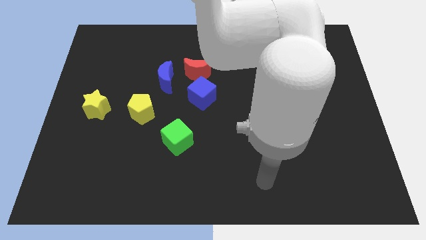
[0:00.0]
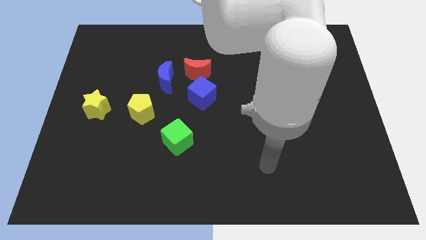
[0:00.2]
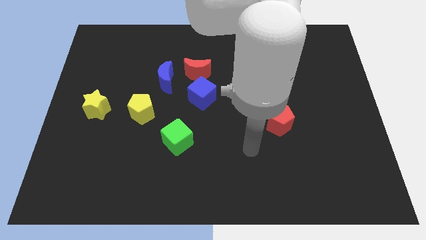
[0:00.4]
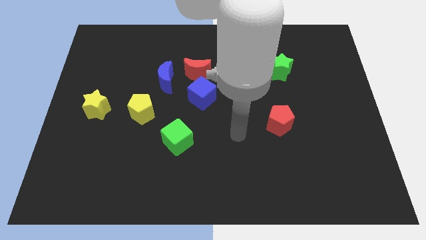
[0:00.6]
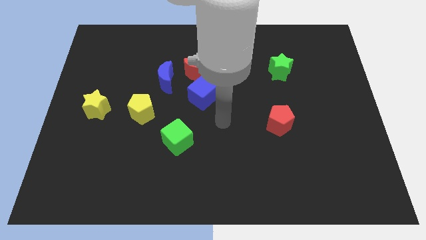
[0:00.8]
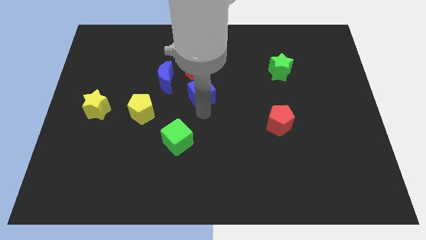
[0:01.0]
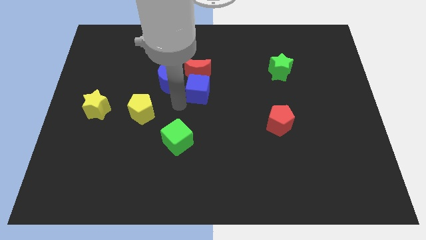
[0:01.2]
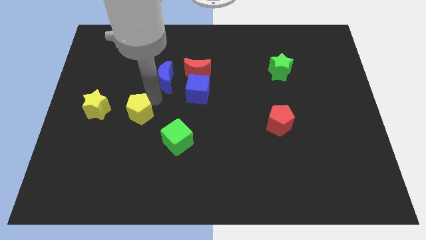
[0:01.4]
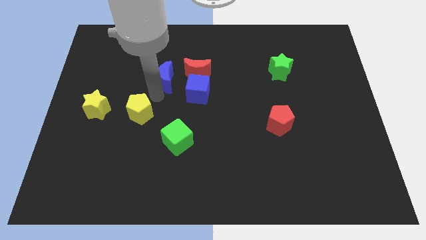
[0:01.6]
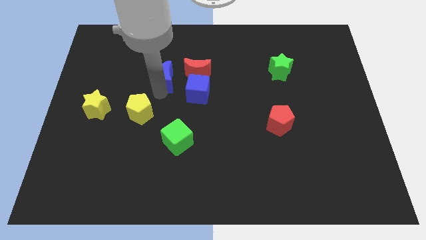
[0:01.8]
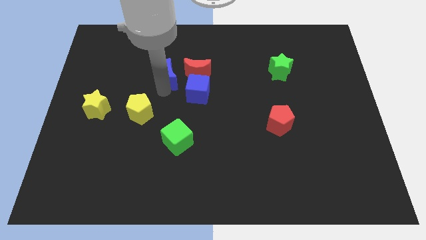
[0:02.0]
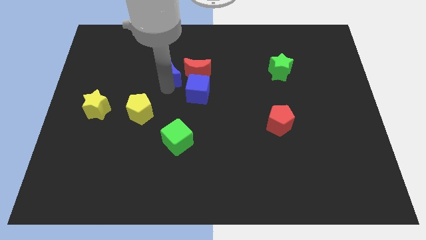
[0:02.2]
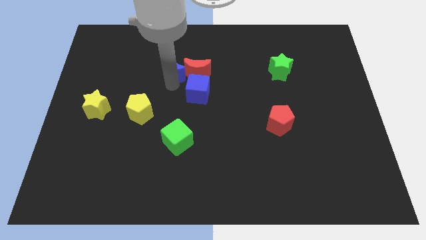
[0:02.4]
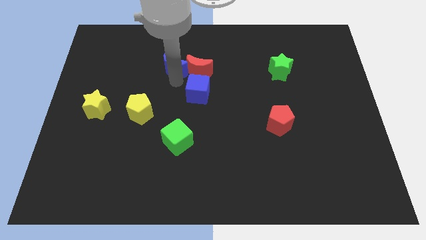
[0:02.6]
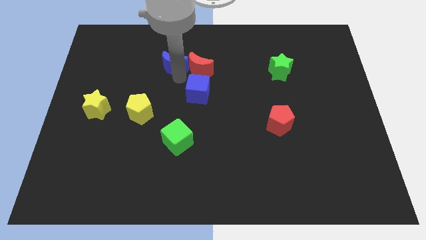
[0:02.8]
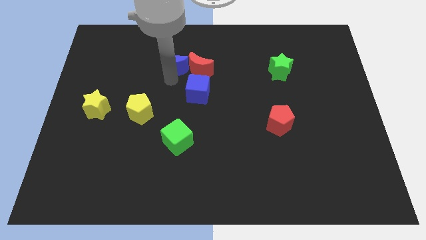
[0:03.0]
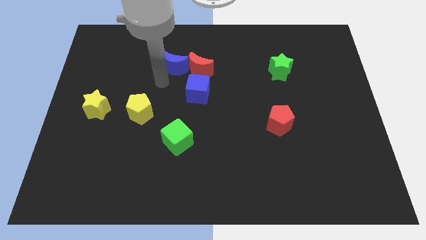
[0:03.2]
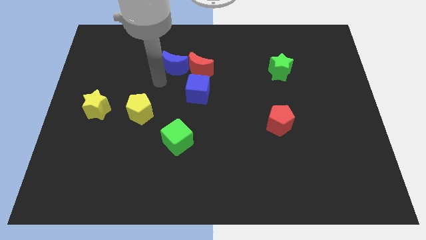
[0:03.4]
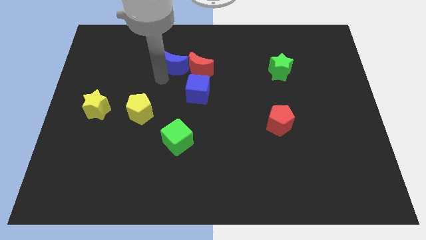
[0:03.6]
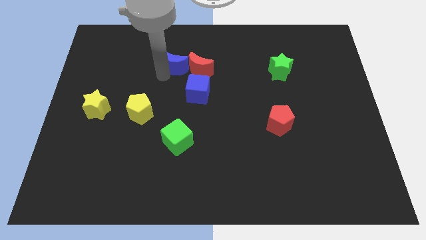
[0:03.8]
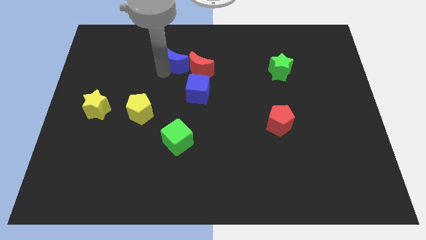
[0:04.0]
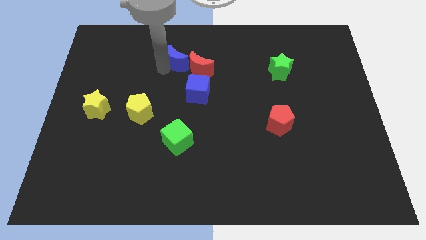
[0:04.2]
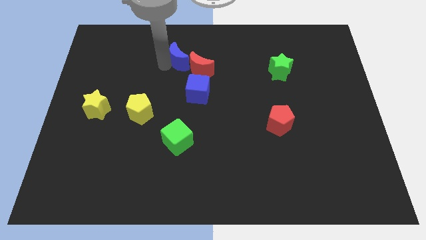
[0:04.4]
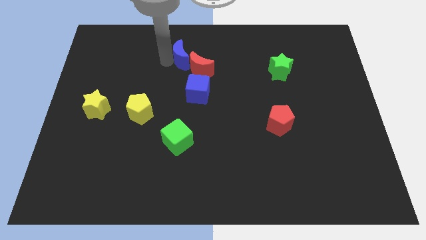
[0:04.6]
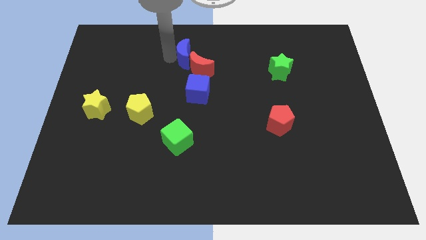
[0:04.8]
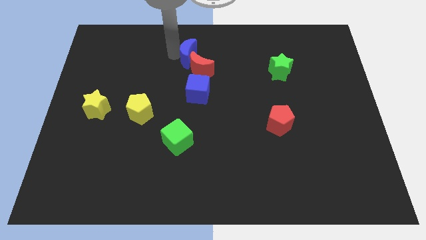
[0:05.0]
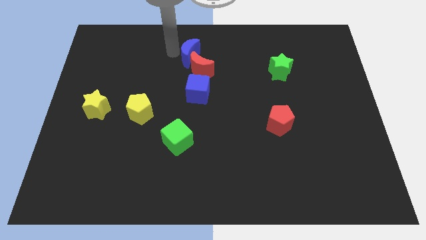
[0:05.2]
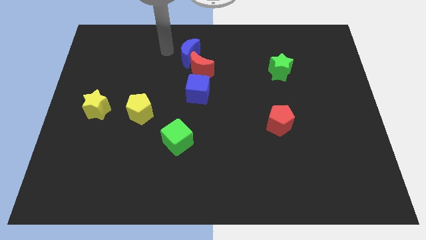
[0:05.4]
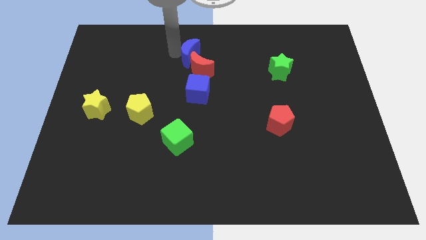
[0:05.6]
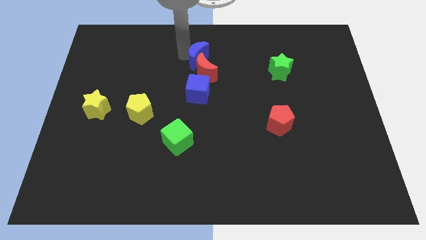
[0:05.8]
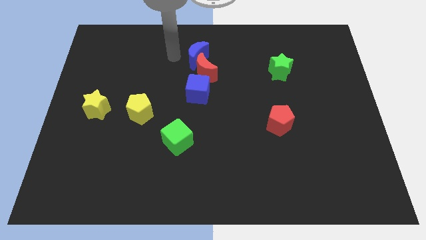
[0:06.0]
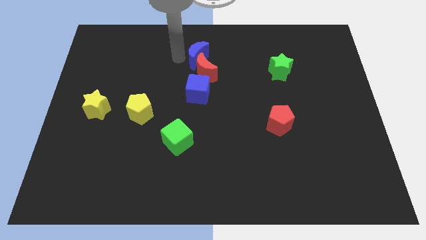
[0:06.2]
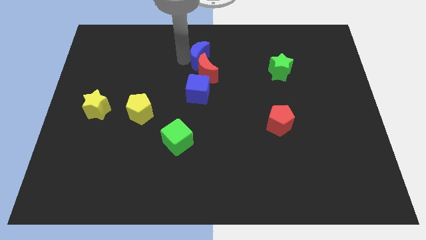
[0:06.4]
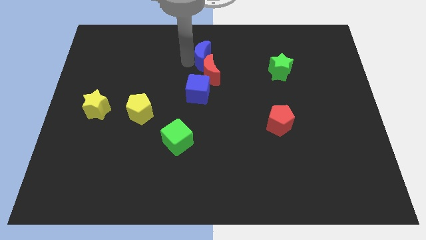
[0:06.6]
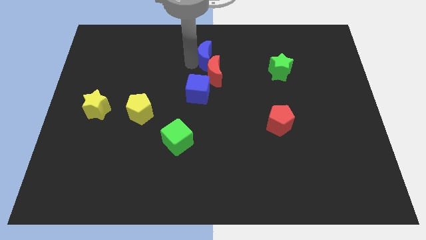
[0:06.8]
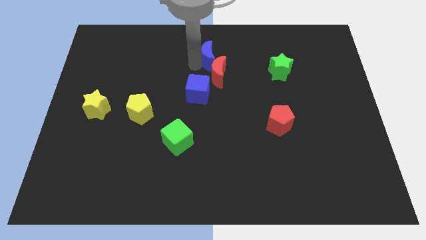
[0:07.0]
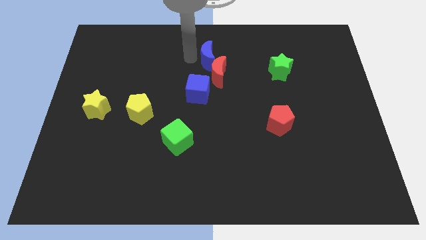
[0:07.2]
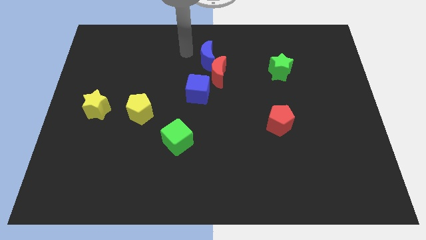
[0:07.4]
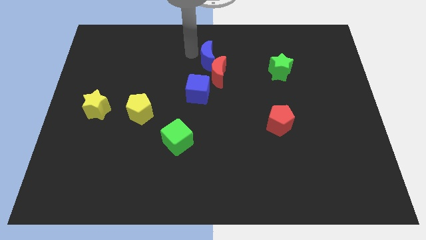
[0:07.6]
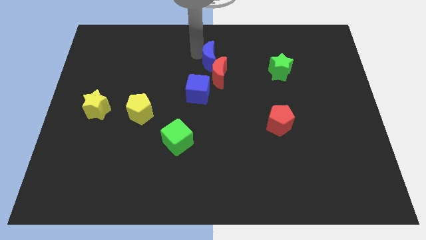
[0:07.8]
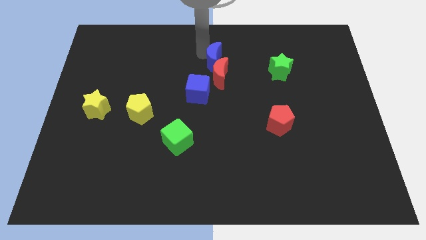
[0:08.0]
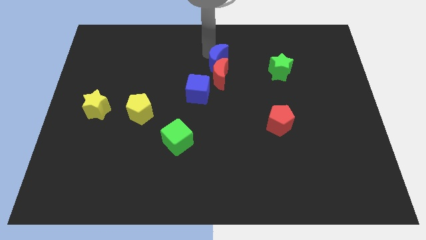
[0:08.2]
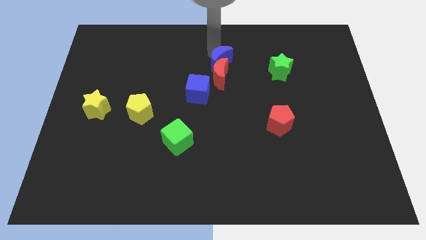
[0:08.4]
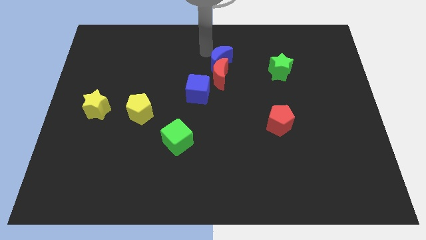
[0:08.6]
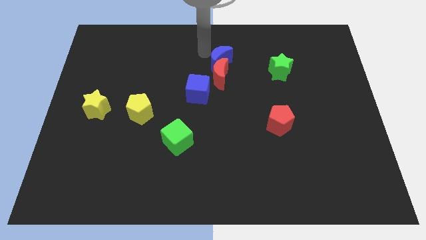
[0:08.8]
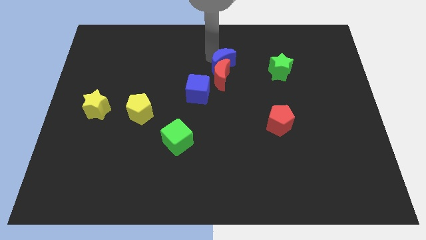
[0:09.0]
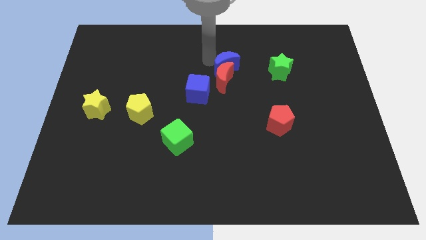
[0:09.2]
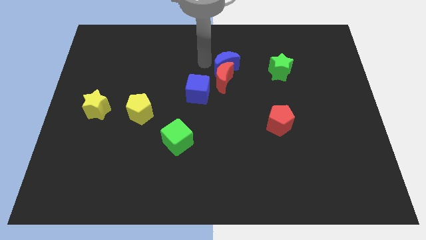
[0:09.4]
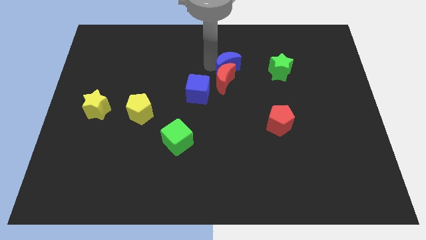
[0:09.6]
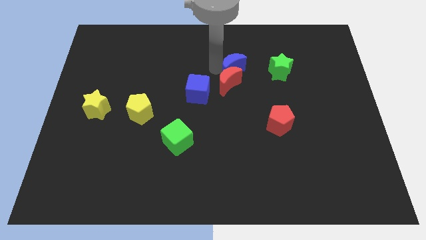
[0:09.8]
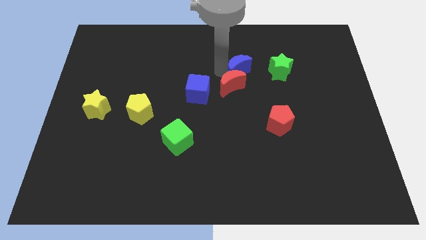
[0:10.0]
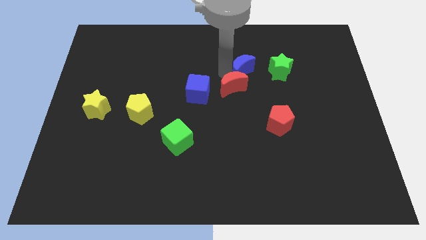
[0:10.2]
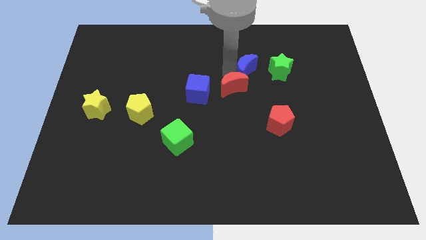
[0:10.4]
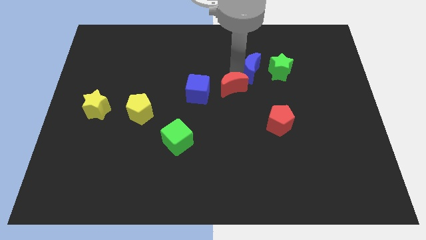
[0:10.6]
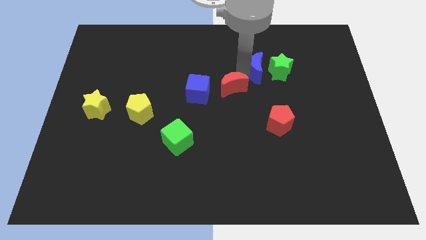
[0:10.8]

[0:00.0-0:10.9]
slide the blue moon to the green star

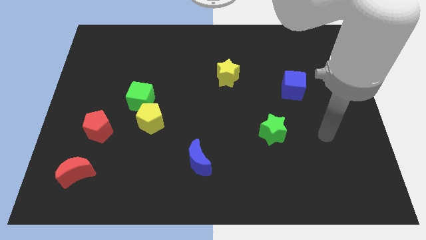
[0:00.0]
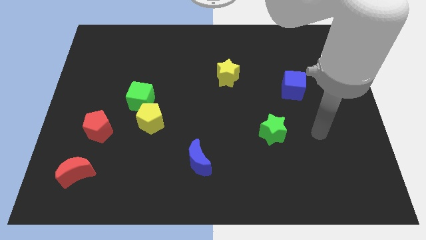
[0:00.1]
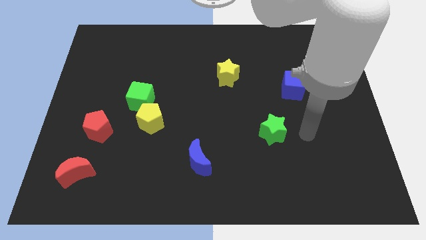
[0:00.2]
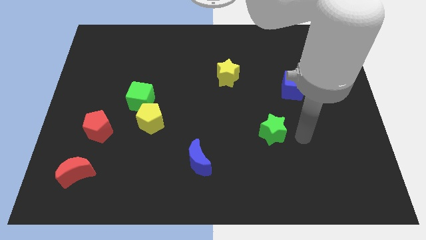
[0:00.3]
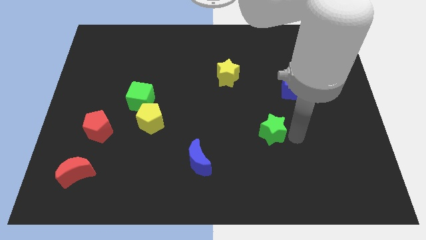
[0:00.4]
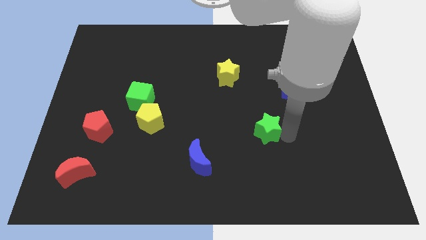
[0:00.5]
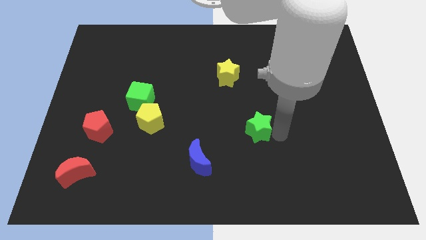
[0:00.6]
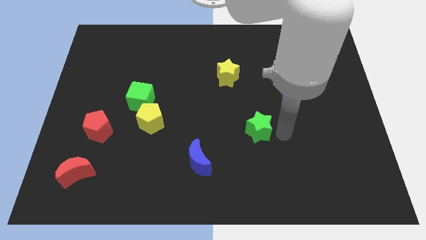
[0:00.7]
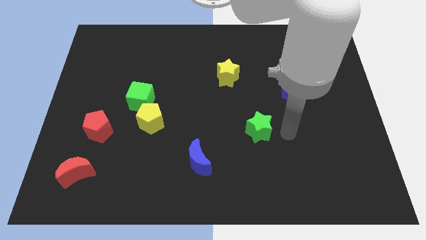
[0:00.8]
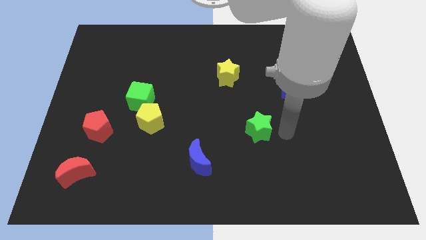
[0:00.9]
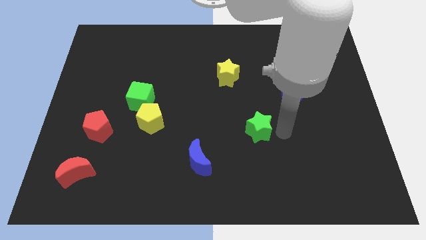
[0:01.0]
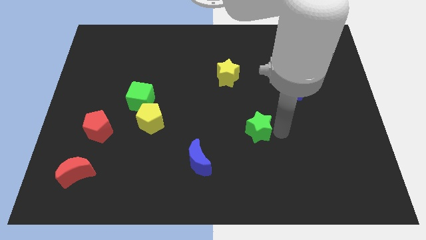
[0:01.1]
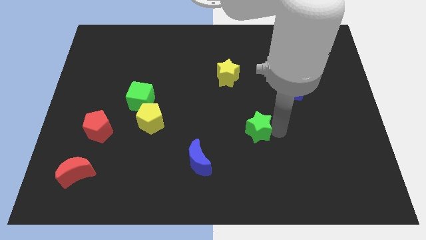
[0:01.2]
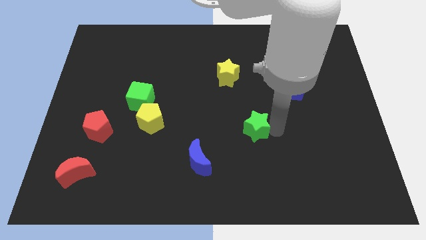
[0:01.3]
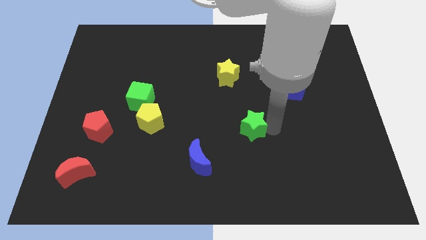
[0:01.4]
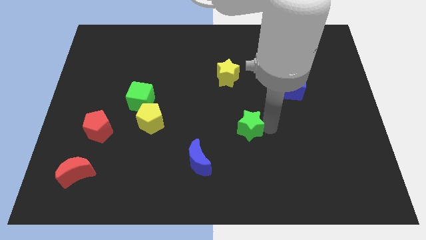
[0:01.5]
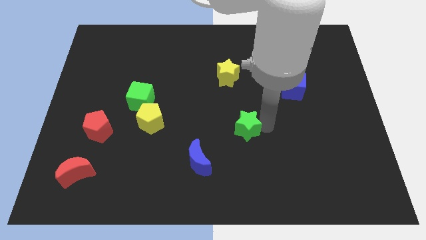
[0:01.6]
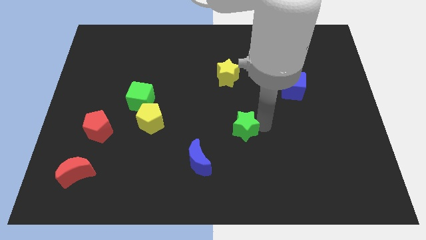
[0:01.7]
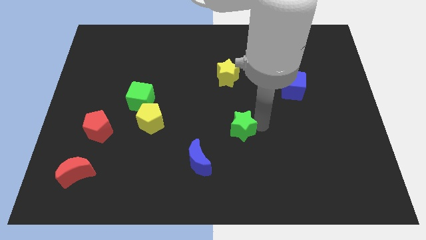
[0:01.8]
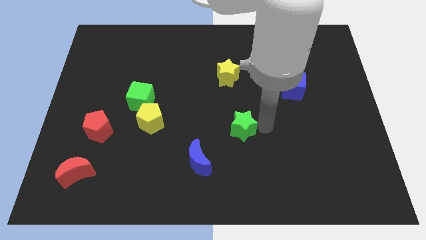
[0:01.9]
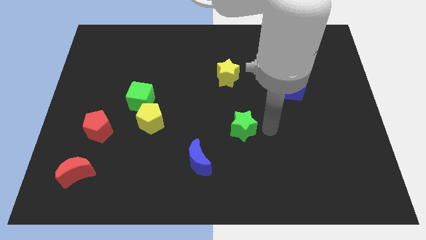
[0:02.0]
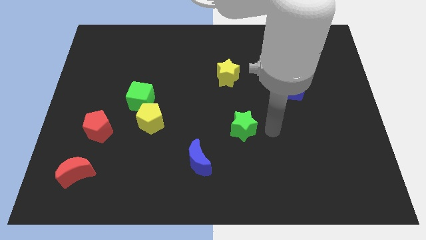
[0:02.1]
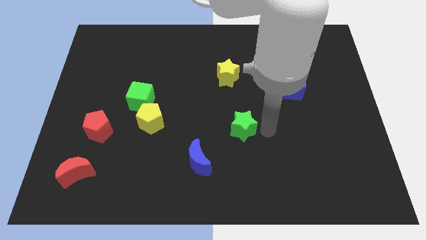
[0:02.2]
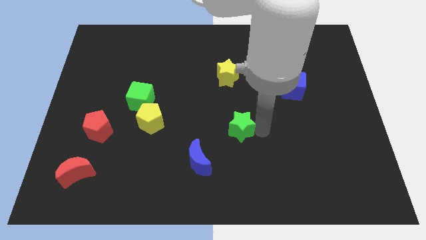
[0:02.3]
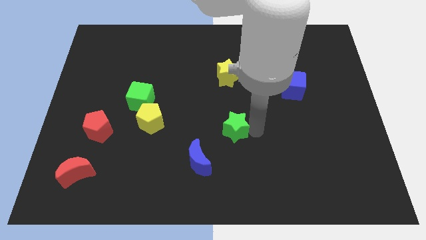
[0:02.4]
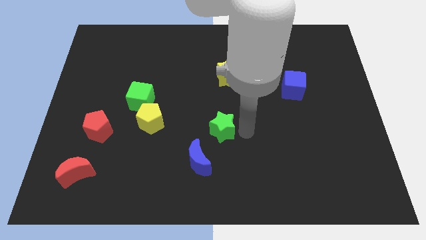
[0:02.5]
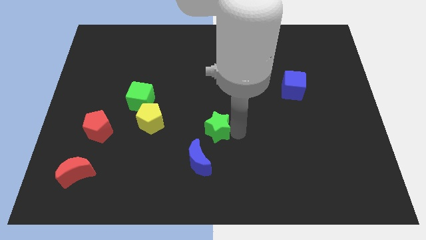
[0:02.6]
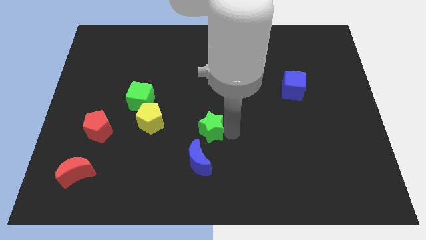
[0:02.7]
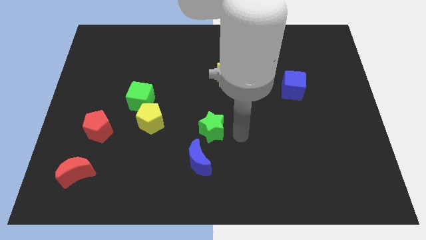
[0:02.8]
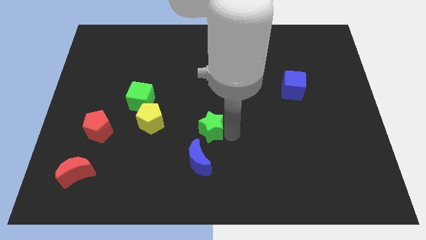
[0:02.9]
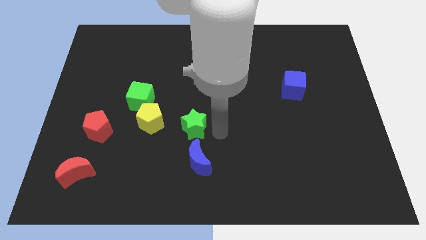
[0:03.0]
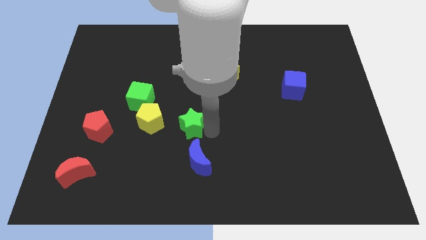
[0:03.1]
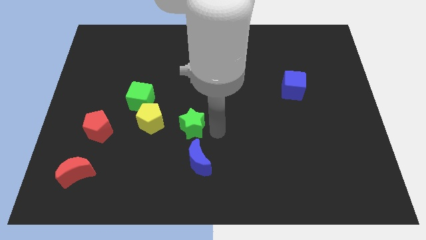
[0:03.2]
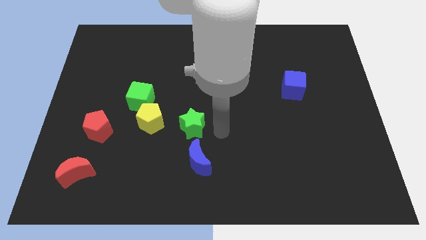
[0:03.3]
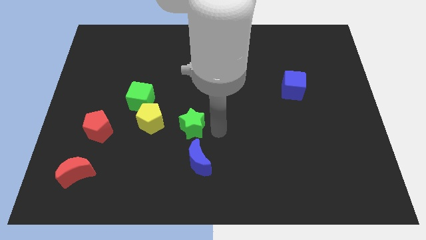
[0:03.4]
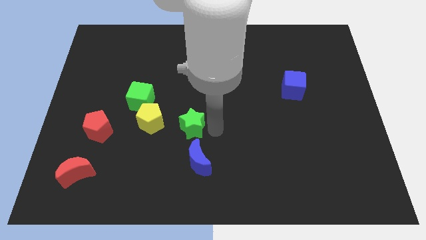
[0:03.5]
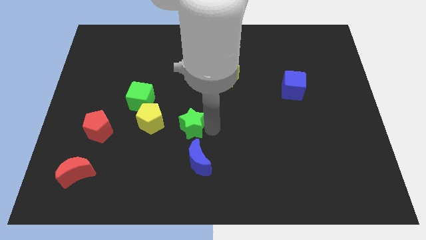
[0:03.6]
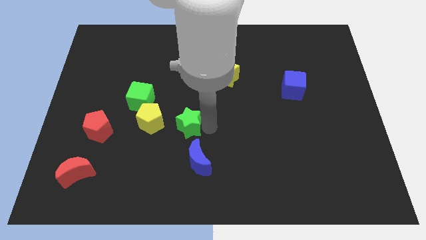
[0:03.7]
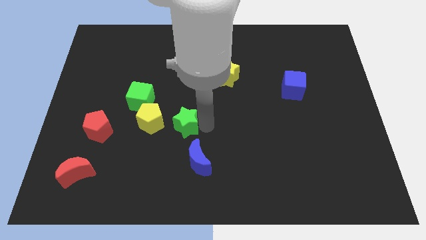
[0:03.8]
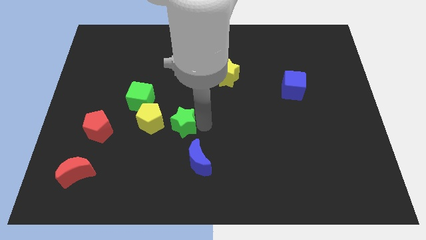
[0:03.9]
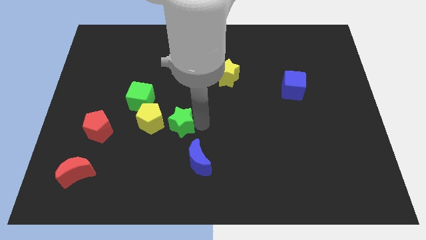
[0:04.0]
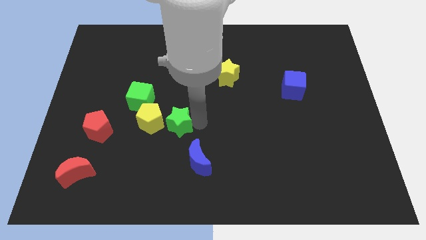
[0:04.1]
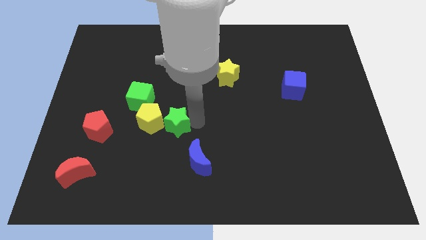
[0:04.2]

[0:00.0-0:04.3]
push the green star to the yellow pentagon
